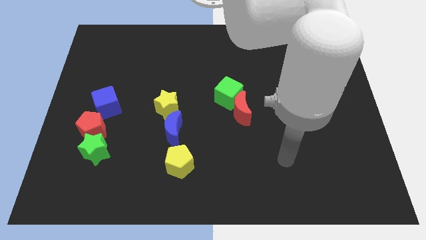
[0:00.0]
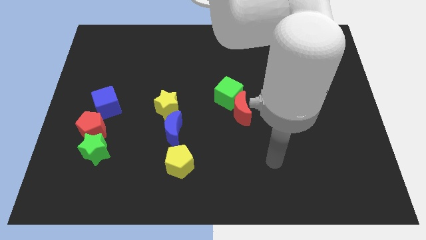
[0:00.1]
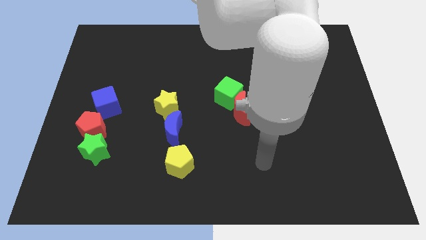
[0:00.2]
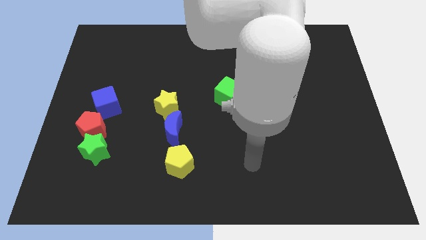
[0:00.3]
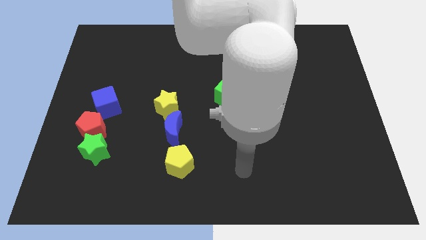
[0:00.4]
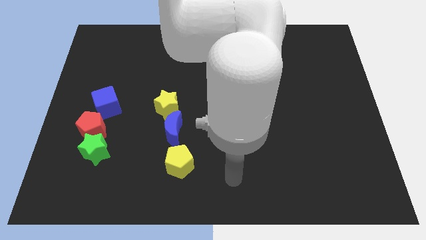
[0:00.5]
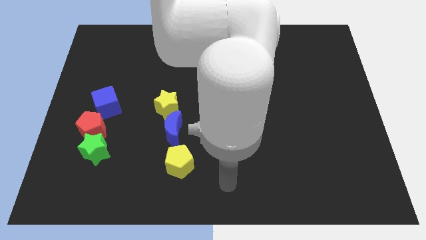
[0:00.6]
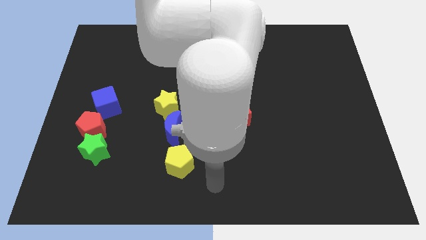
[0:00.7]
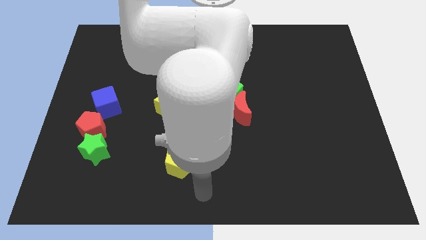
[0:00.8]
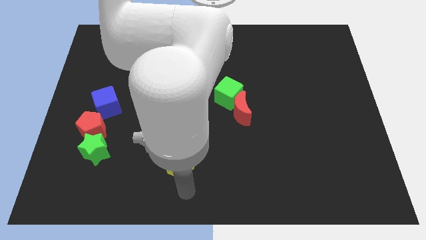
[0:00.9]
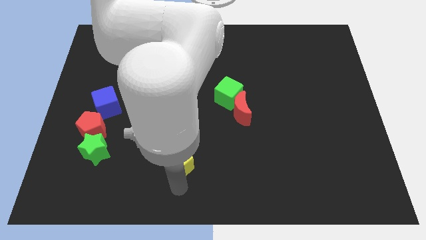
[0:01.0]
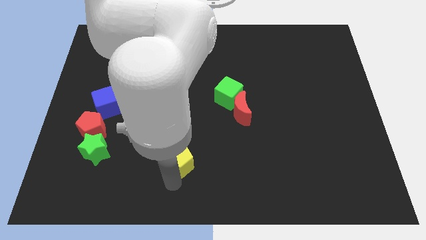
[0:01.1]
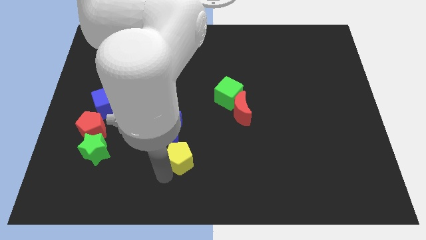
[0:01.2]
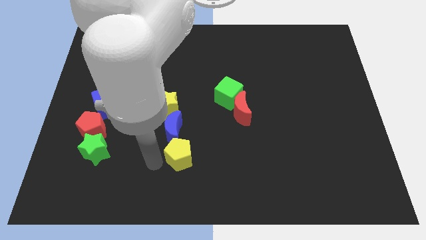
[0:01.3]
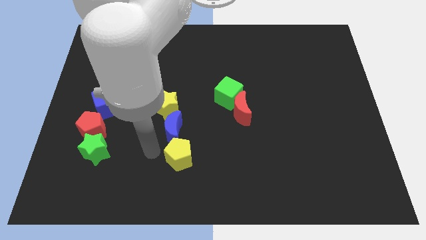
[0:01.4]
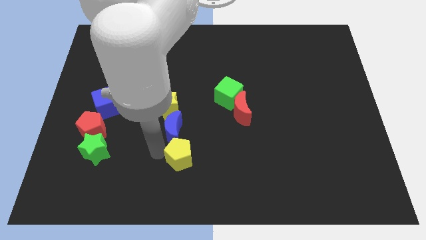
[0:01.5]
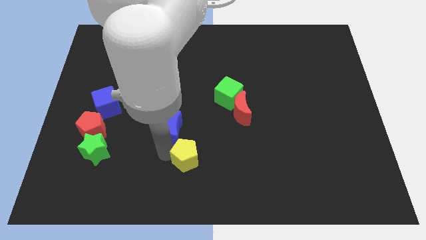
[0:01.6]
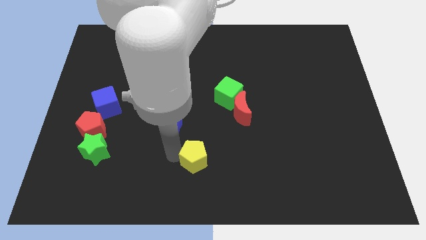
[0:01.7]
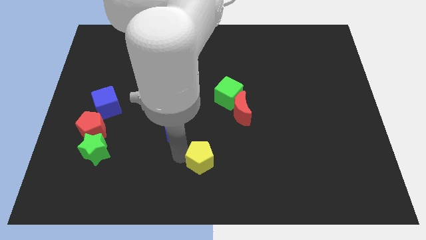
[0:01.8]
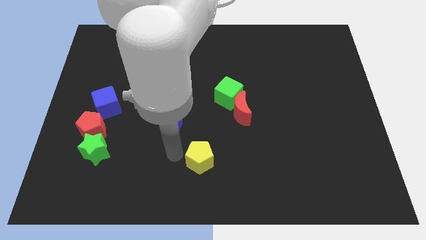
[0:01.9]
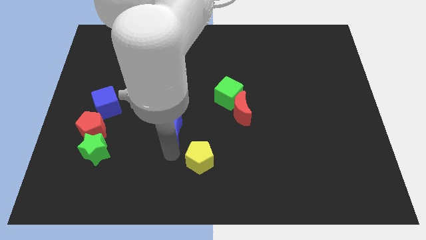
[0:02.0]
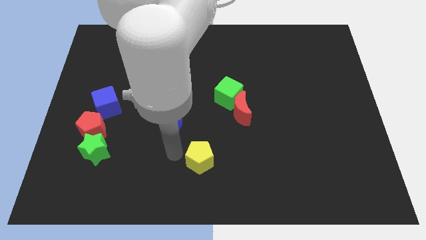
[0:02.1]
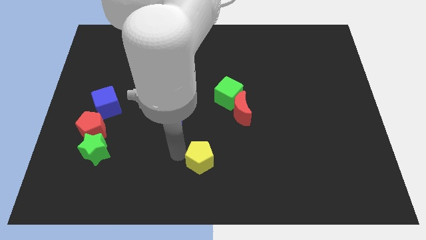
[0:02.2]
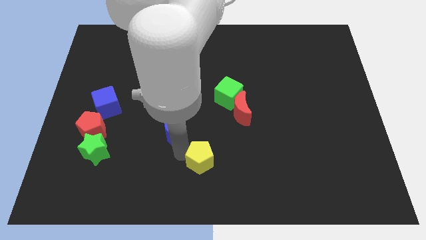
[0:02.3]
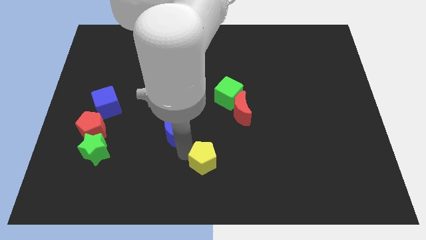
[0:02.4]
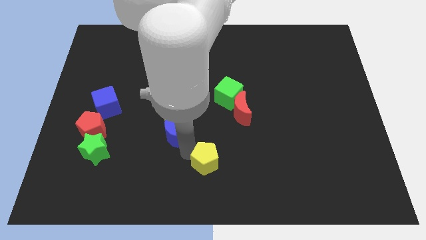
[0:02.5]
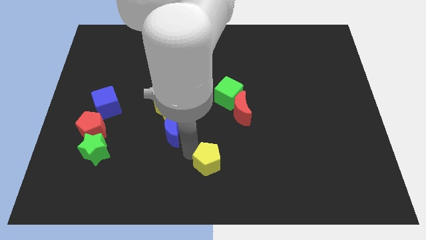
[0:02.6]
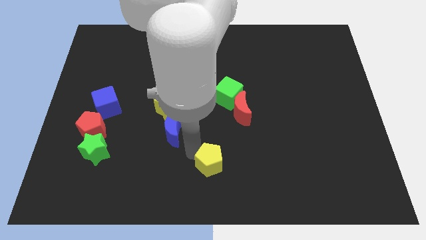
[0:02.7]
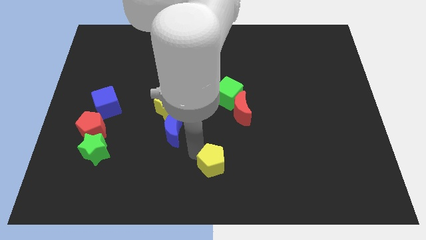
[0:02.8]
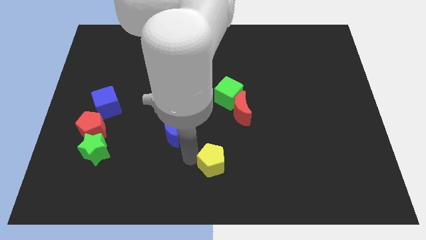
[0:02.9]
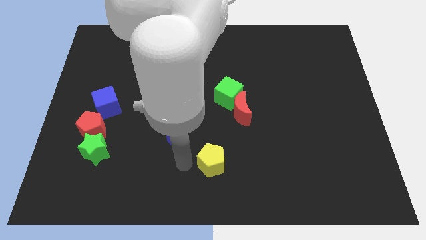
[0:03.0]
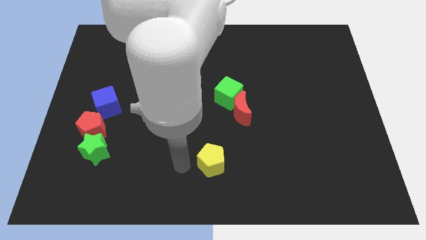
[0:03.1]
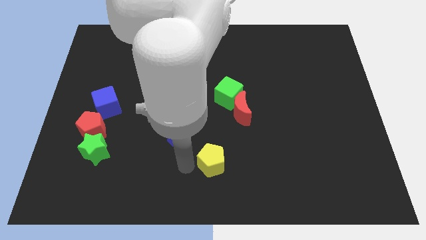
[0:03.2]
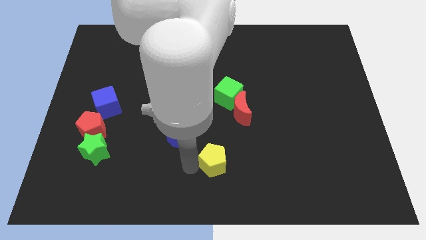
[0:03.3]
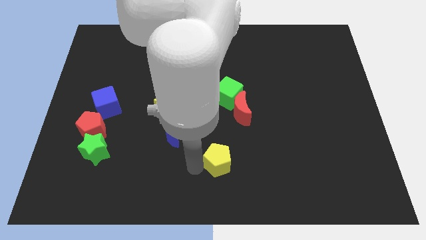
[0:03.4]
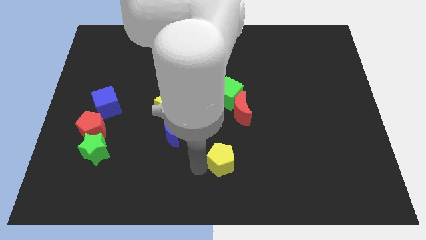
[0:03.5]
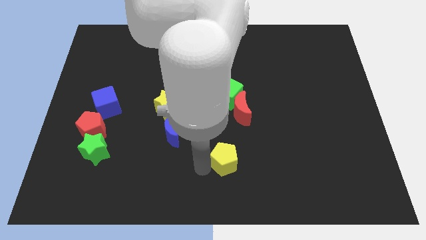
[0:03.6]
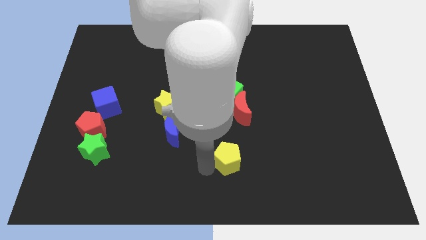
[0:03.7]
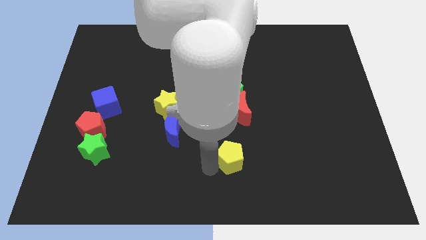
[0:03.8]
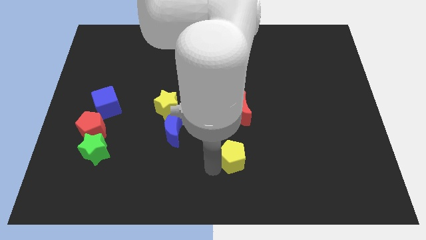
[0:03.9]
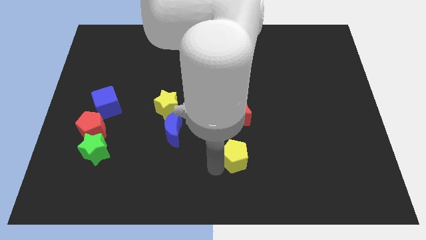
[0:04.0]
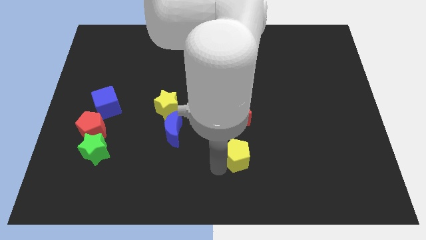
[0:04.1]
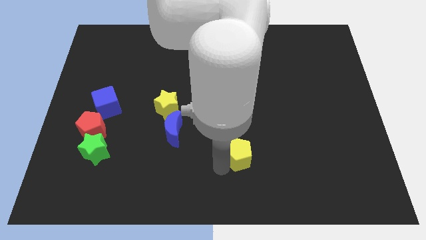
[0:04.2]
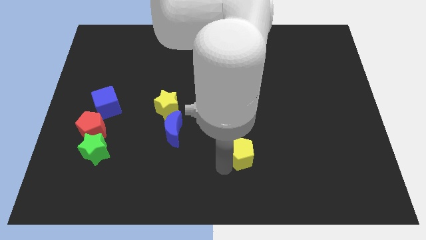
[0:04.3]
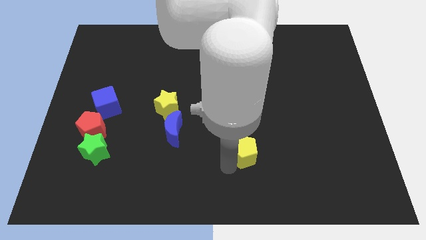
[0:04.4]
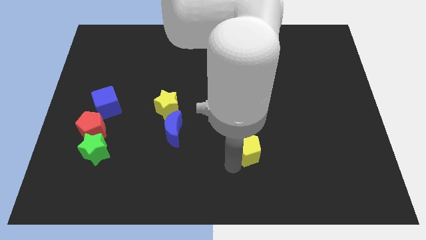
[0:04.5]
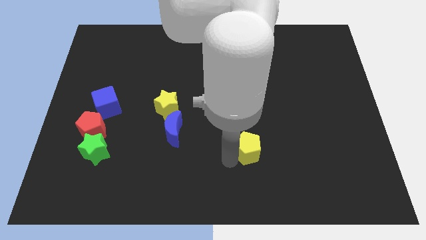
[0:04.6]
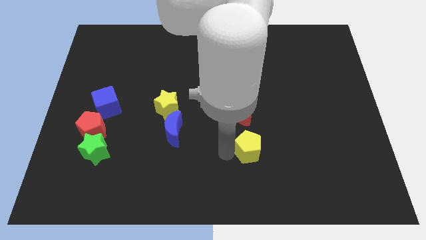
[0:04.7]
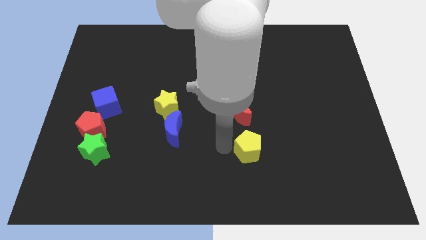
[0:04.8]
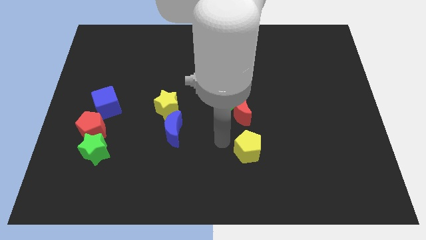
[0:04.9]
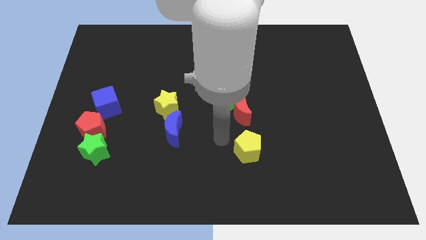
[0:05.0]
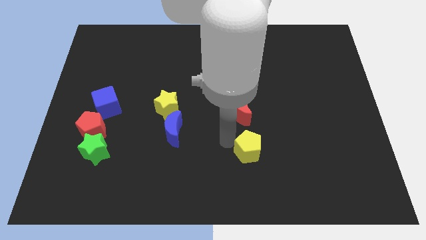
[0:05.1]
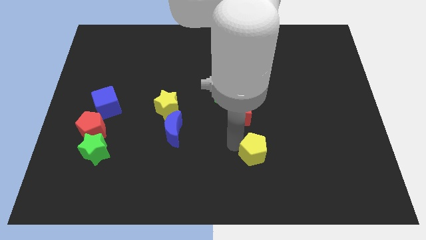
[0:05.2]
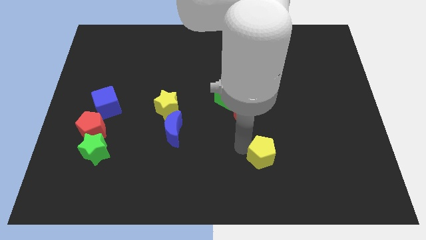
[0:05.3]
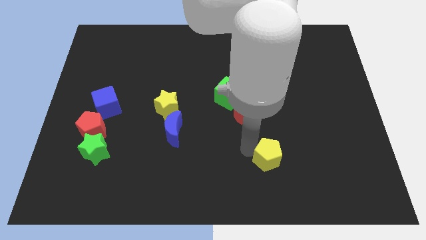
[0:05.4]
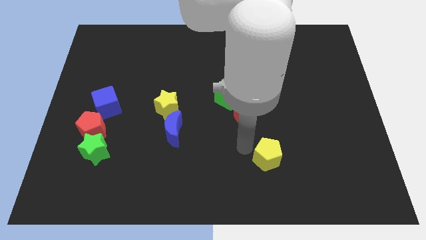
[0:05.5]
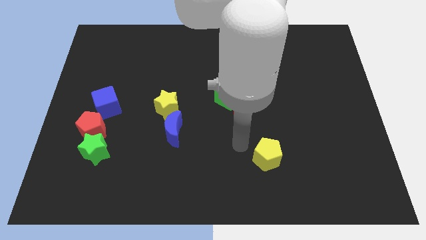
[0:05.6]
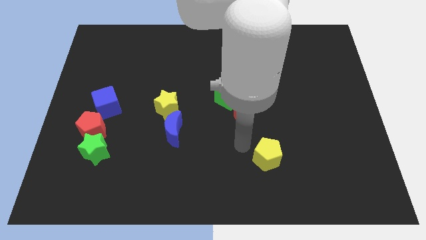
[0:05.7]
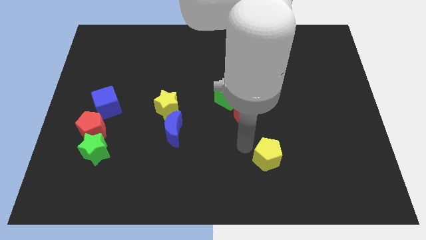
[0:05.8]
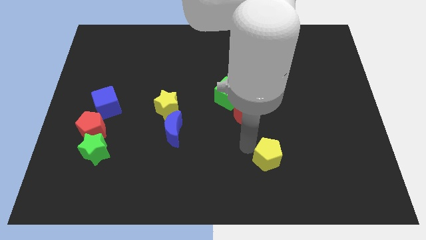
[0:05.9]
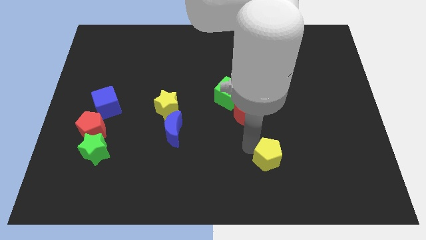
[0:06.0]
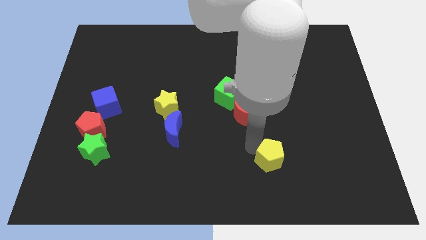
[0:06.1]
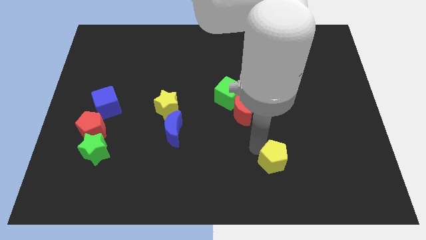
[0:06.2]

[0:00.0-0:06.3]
move the yellow pentagon right

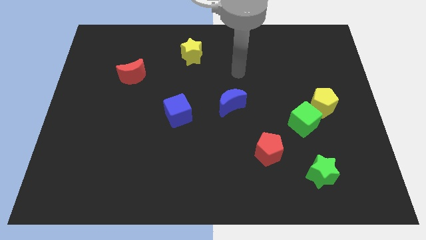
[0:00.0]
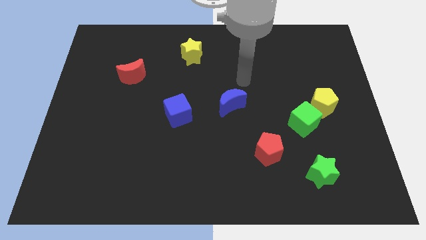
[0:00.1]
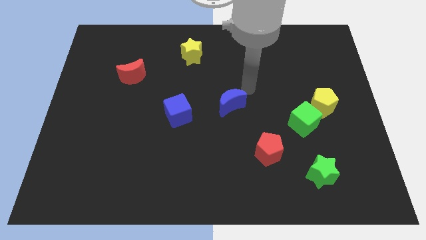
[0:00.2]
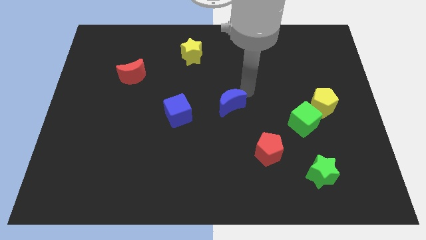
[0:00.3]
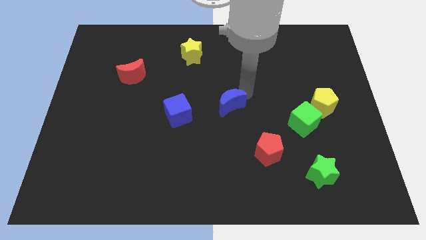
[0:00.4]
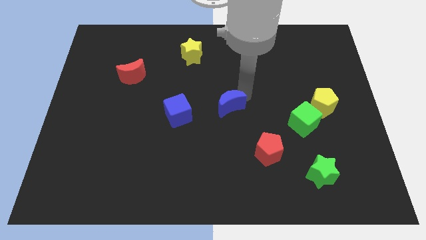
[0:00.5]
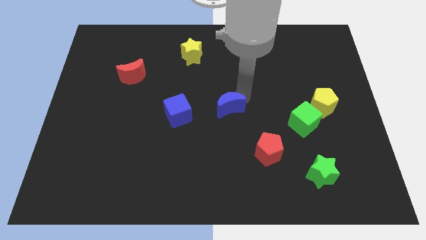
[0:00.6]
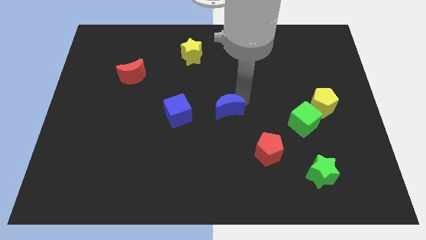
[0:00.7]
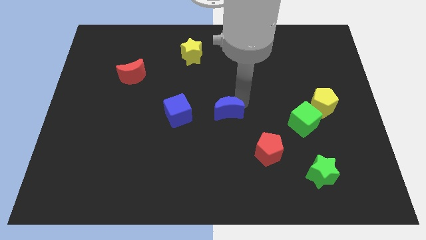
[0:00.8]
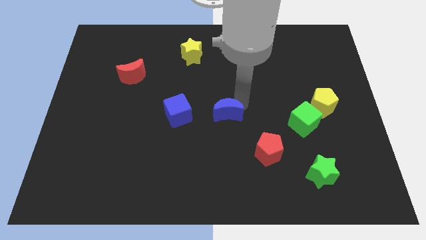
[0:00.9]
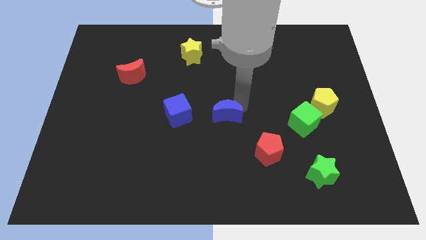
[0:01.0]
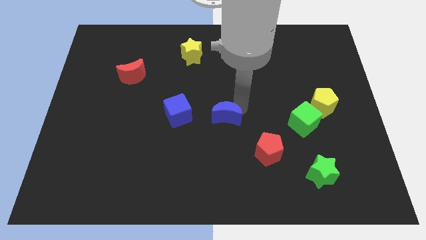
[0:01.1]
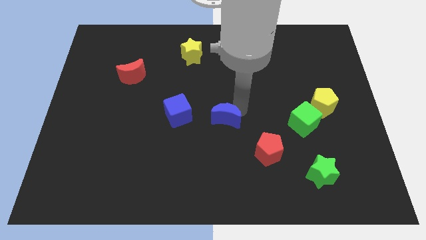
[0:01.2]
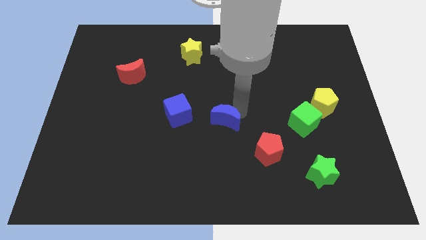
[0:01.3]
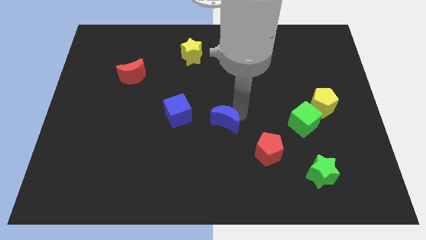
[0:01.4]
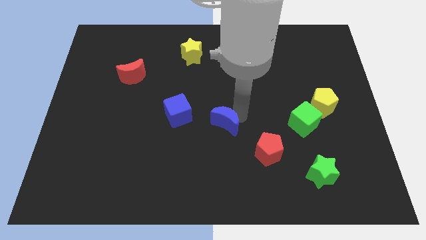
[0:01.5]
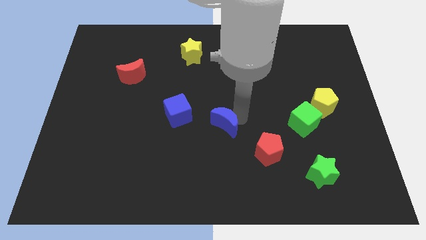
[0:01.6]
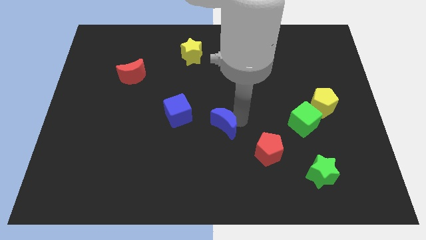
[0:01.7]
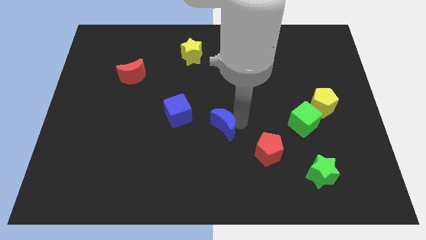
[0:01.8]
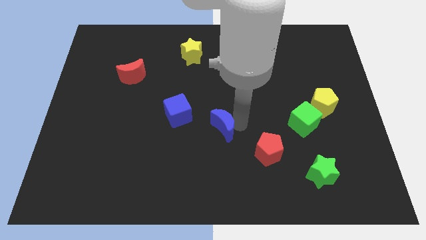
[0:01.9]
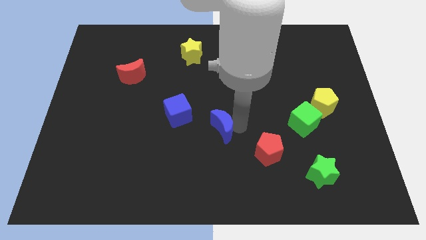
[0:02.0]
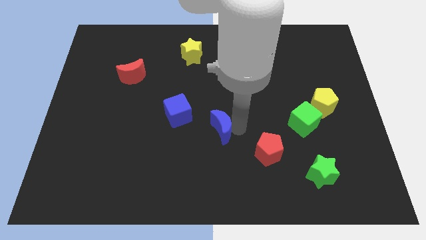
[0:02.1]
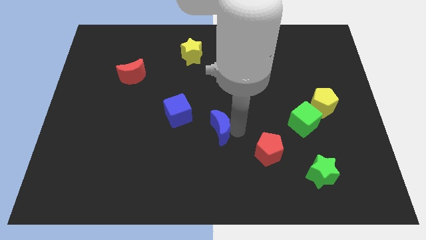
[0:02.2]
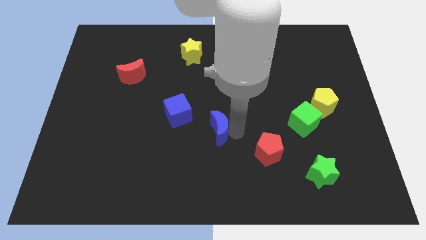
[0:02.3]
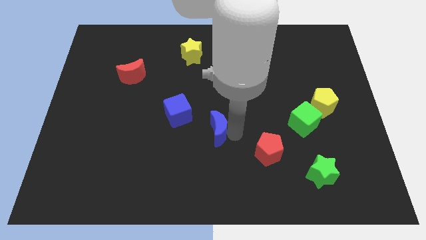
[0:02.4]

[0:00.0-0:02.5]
move the blue moon slightly diagonally down and to the left
